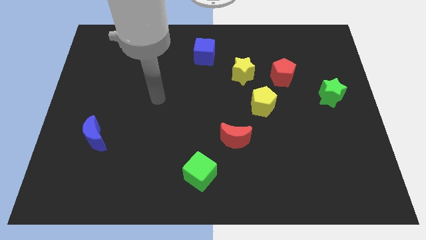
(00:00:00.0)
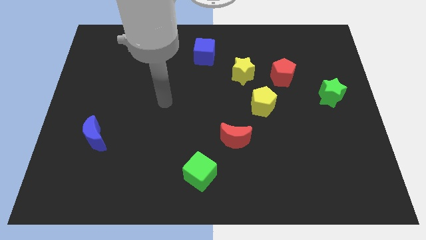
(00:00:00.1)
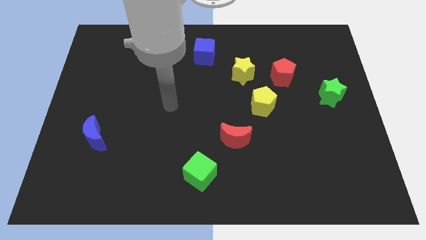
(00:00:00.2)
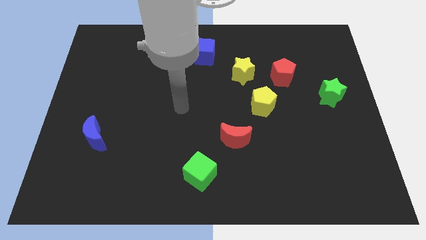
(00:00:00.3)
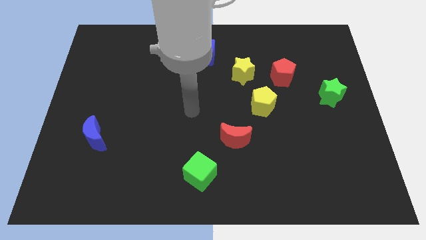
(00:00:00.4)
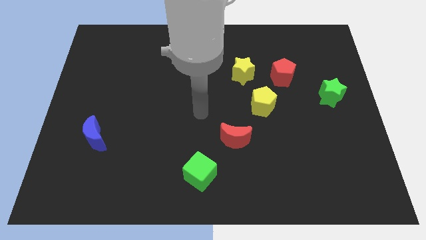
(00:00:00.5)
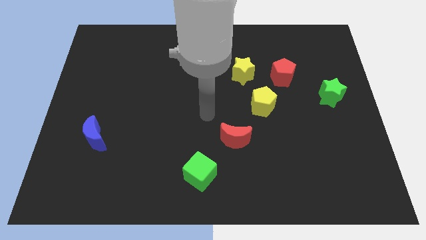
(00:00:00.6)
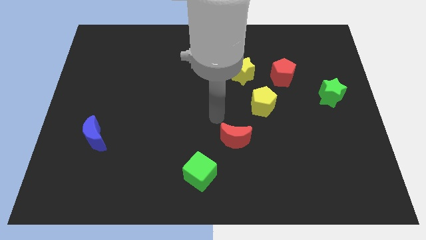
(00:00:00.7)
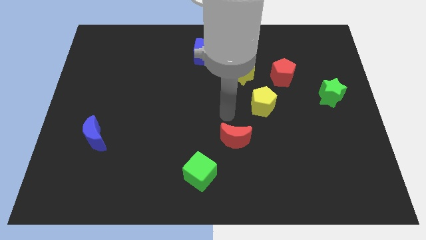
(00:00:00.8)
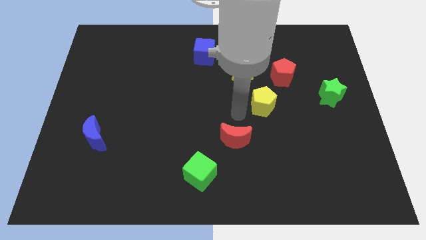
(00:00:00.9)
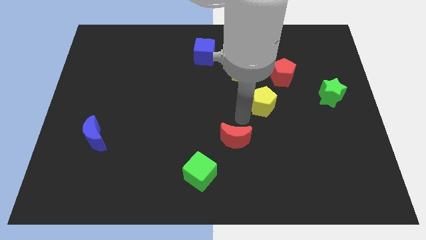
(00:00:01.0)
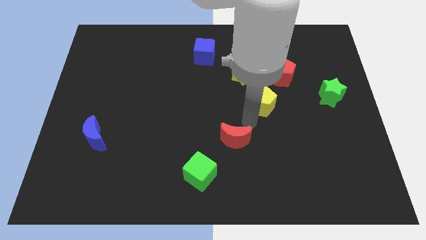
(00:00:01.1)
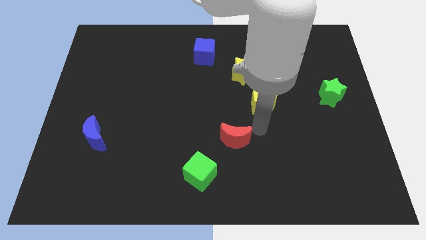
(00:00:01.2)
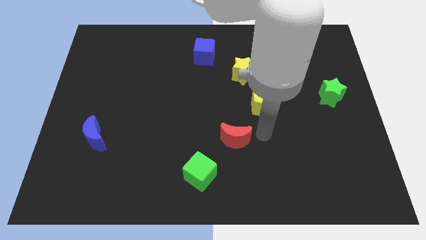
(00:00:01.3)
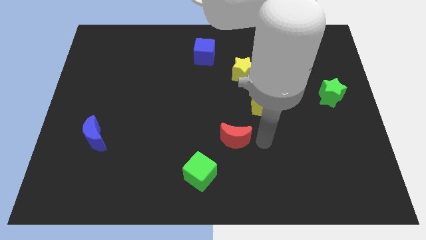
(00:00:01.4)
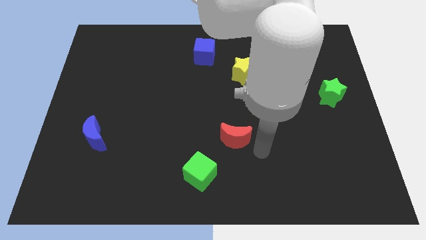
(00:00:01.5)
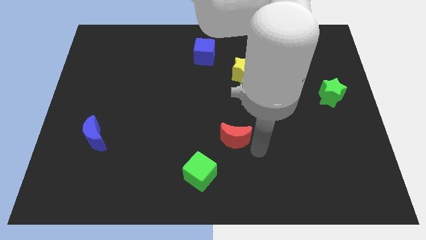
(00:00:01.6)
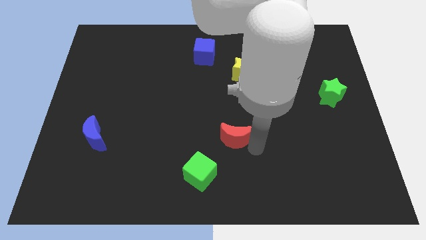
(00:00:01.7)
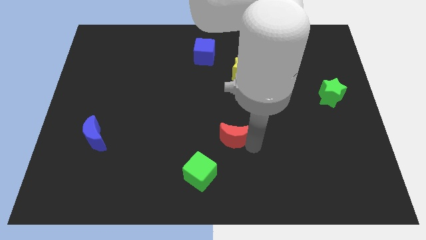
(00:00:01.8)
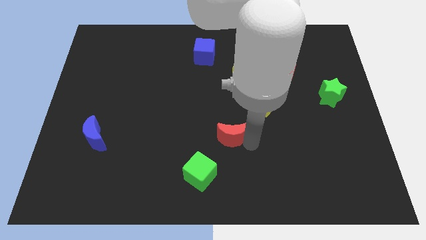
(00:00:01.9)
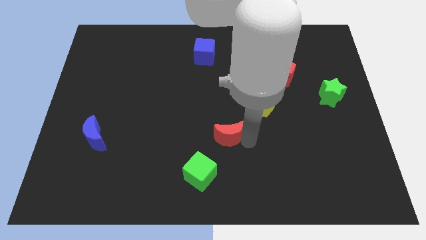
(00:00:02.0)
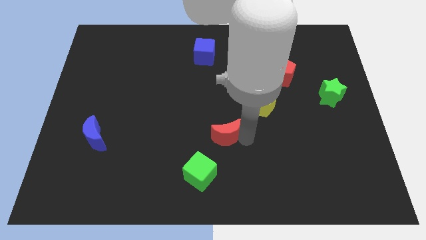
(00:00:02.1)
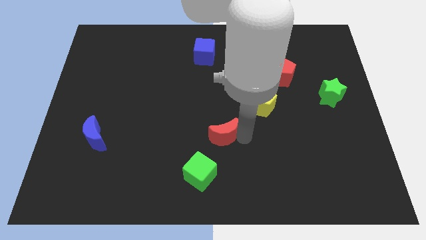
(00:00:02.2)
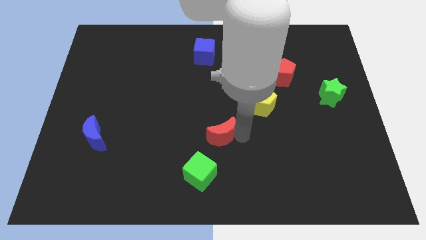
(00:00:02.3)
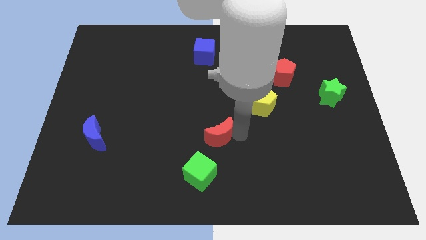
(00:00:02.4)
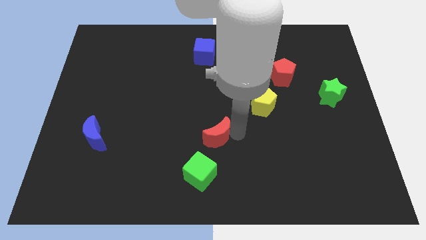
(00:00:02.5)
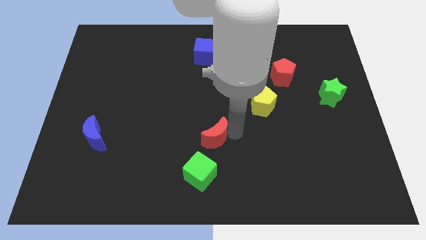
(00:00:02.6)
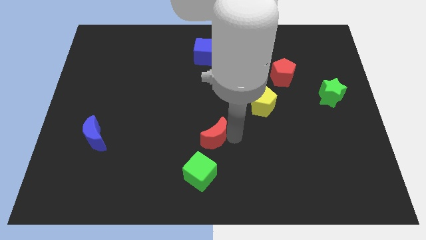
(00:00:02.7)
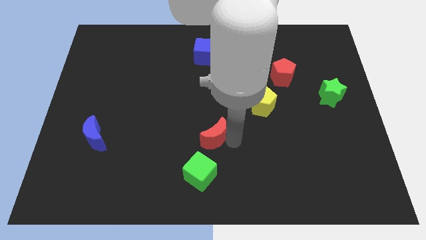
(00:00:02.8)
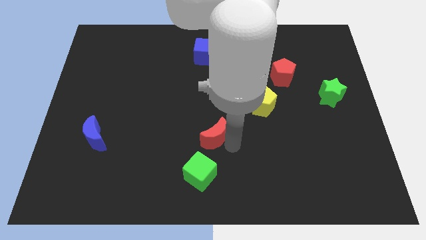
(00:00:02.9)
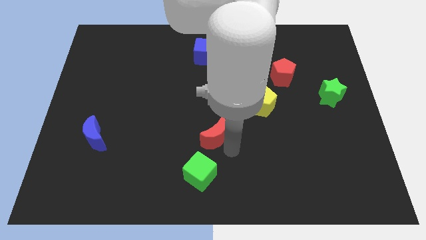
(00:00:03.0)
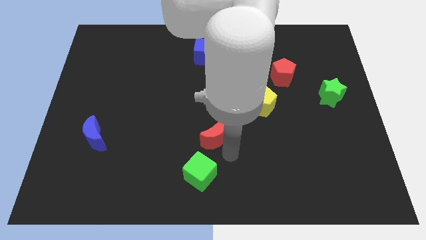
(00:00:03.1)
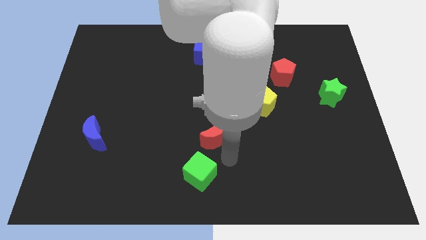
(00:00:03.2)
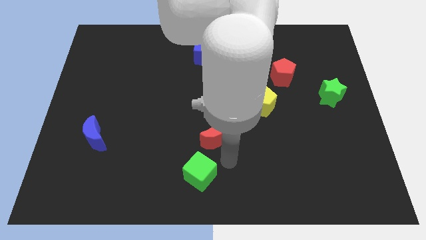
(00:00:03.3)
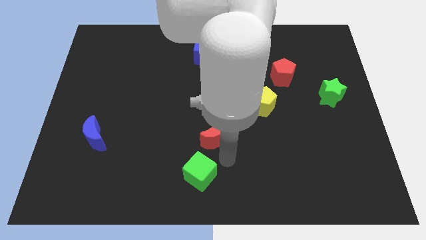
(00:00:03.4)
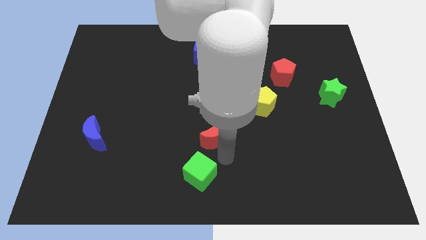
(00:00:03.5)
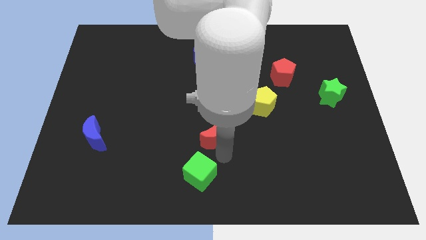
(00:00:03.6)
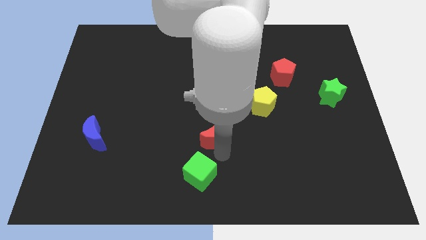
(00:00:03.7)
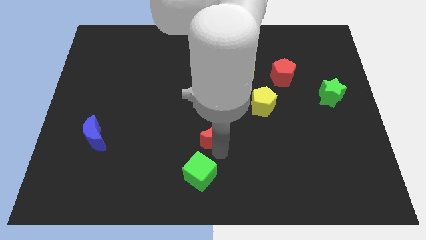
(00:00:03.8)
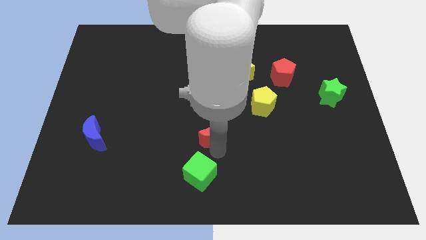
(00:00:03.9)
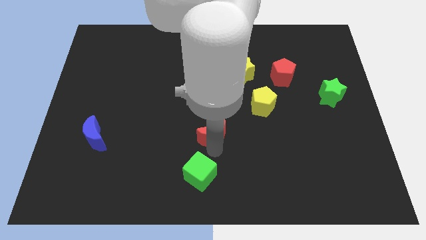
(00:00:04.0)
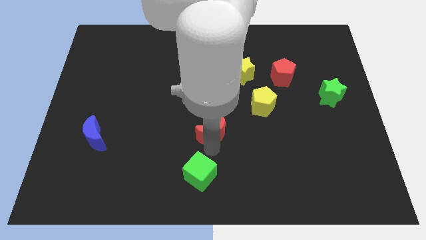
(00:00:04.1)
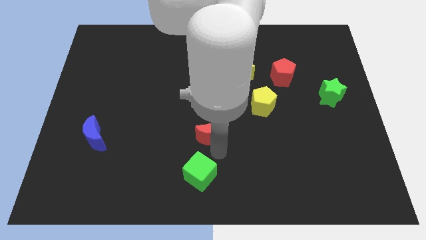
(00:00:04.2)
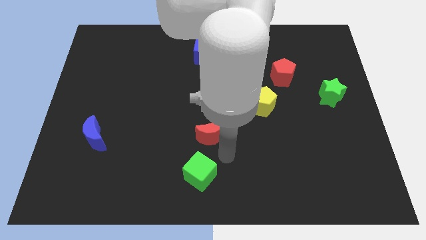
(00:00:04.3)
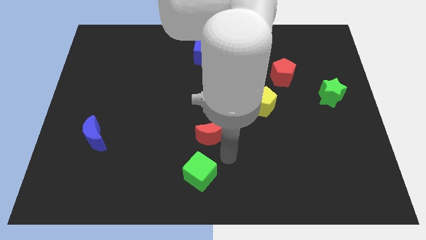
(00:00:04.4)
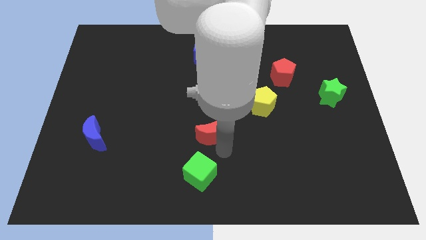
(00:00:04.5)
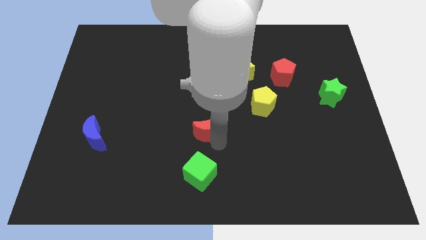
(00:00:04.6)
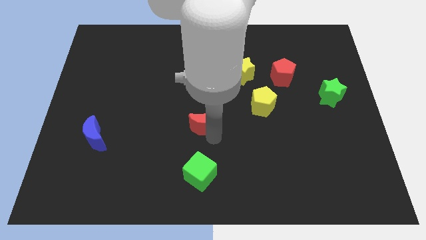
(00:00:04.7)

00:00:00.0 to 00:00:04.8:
move the red moon up and left diagonally a bit

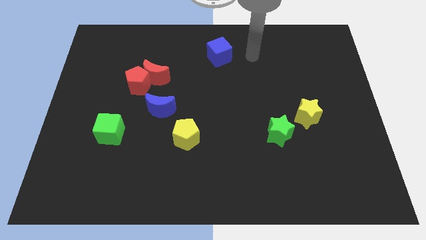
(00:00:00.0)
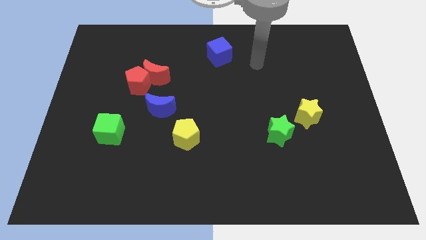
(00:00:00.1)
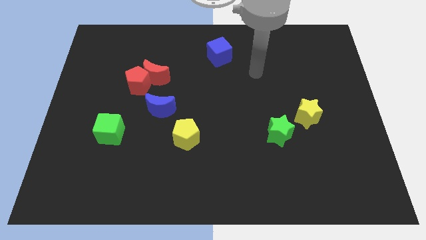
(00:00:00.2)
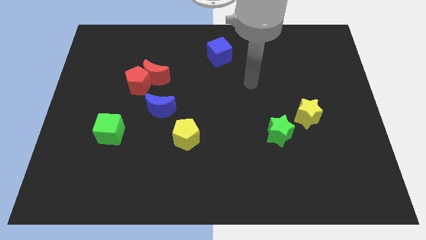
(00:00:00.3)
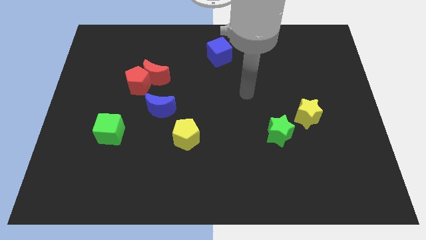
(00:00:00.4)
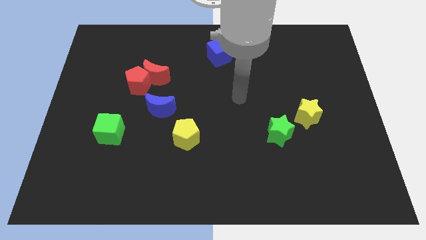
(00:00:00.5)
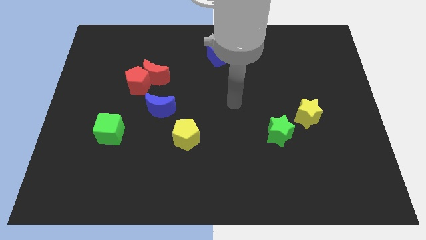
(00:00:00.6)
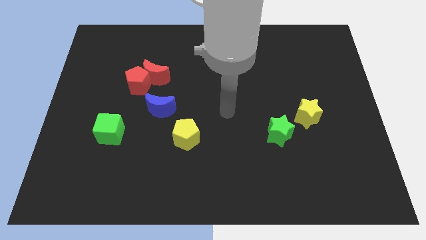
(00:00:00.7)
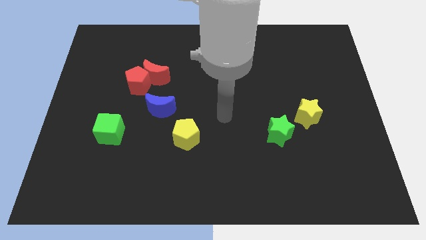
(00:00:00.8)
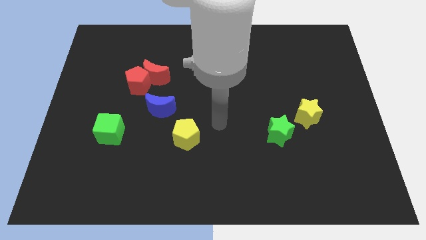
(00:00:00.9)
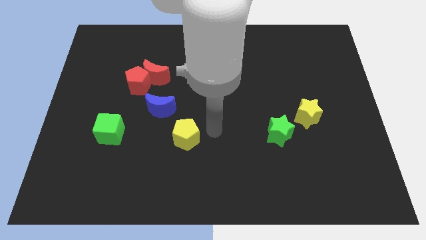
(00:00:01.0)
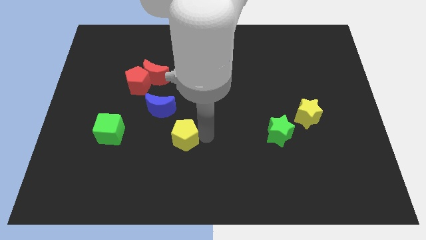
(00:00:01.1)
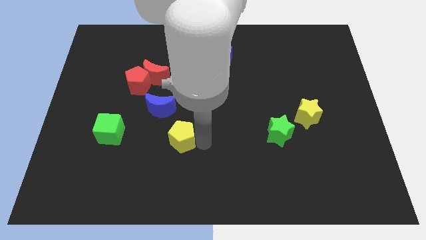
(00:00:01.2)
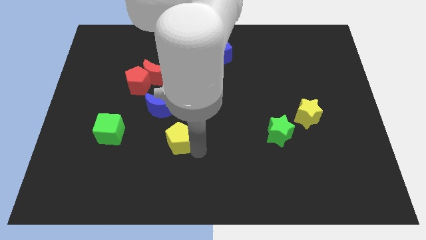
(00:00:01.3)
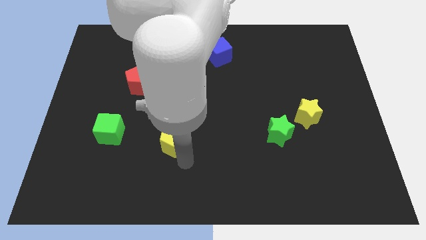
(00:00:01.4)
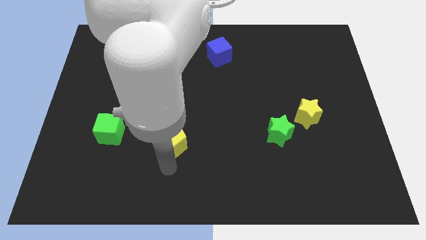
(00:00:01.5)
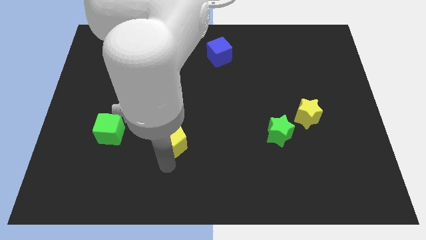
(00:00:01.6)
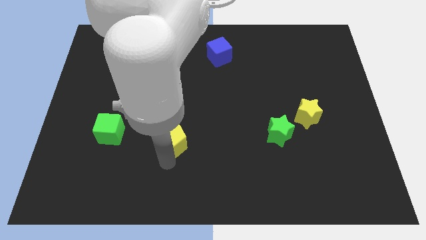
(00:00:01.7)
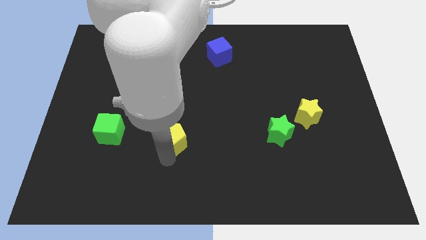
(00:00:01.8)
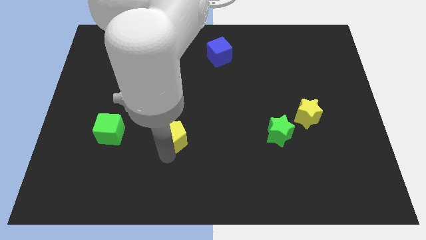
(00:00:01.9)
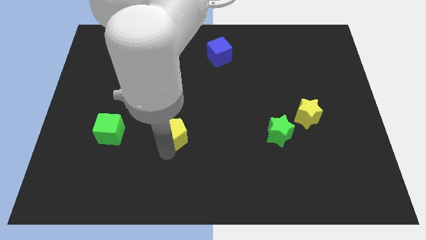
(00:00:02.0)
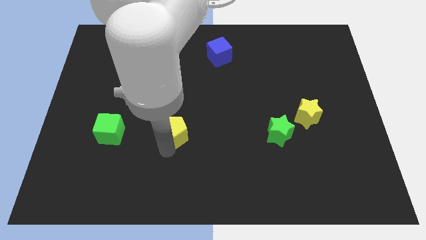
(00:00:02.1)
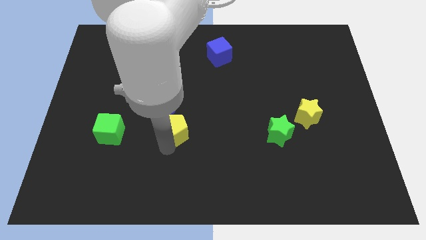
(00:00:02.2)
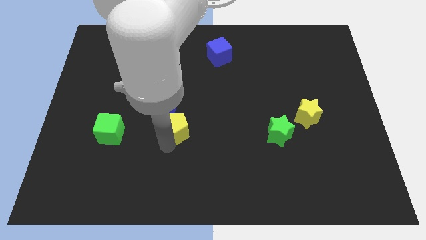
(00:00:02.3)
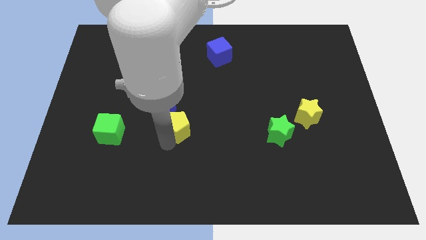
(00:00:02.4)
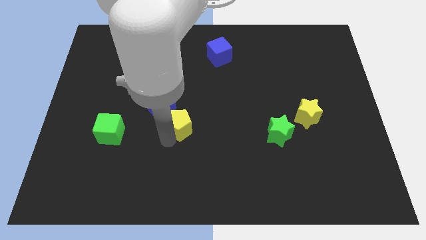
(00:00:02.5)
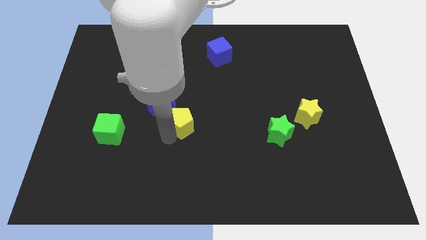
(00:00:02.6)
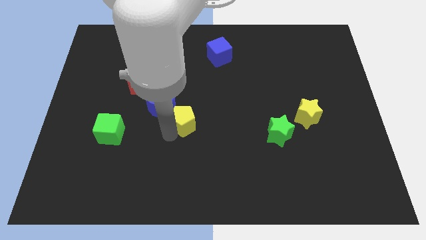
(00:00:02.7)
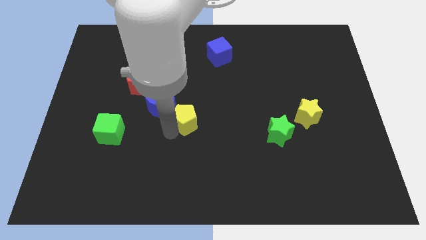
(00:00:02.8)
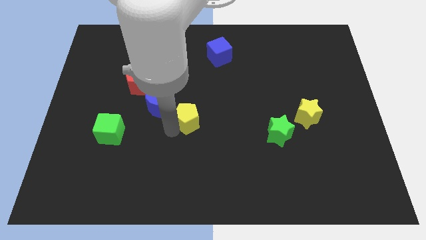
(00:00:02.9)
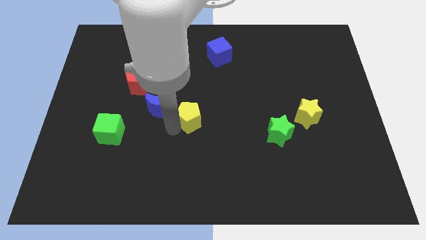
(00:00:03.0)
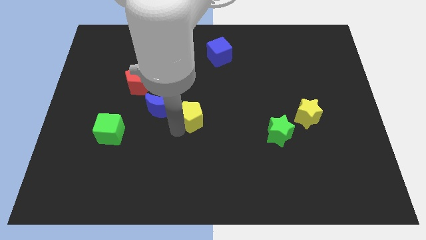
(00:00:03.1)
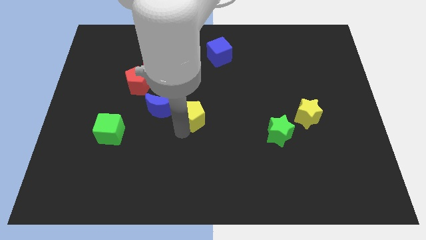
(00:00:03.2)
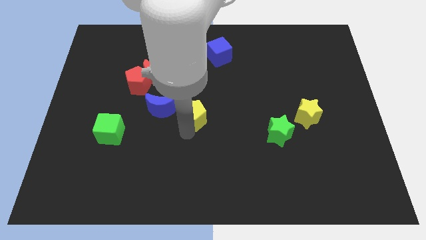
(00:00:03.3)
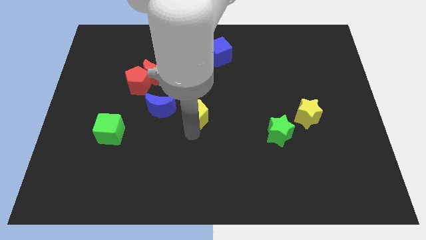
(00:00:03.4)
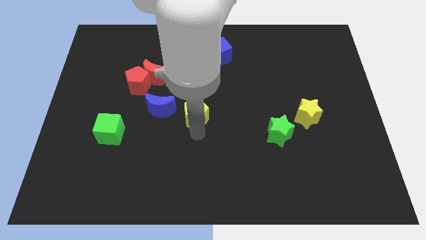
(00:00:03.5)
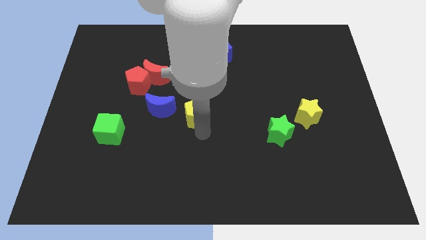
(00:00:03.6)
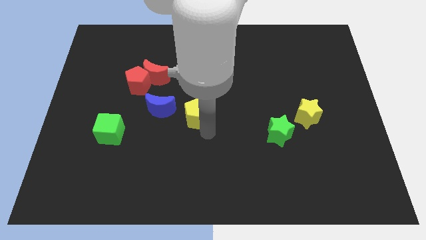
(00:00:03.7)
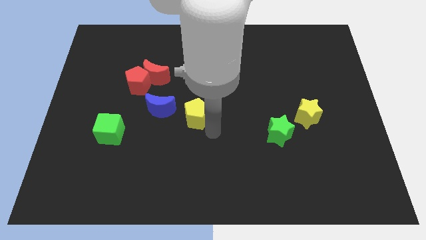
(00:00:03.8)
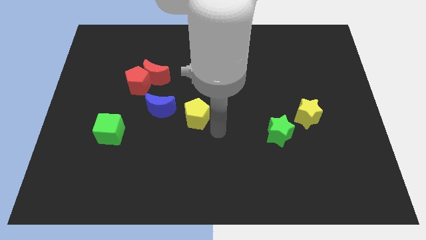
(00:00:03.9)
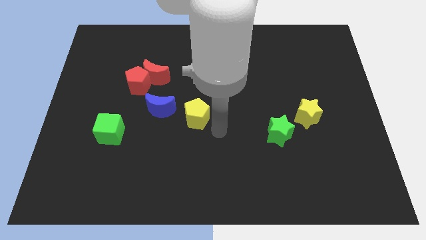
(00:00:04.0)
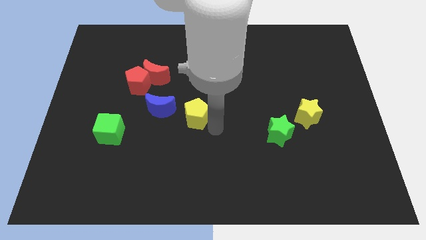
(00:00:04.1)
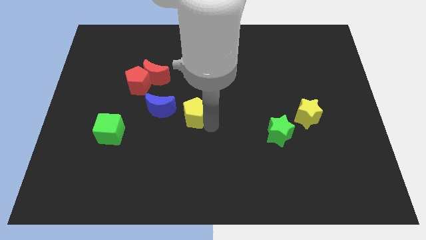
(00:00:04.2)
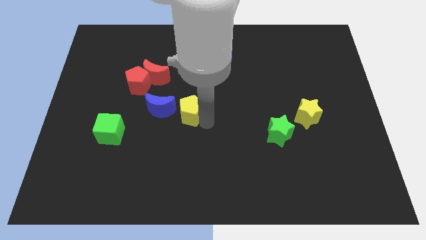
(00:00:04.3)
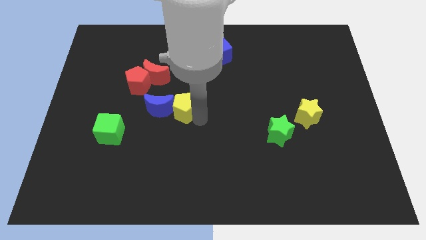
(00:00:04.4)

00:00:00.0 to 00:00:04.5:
slide the yellow pentagon a little up
